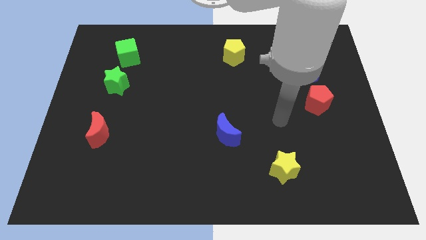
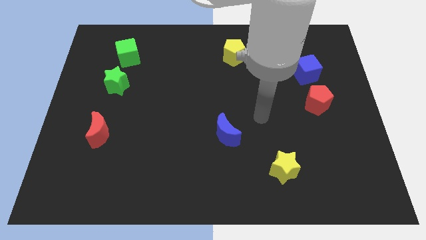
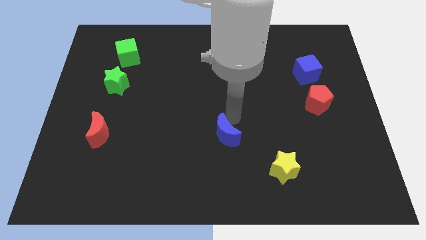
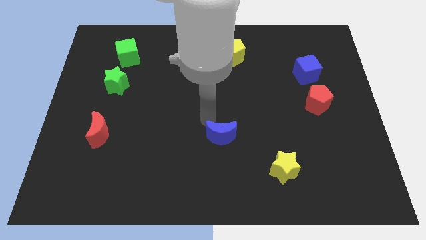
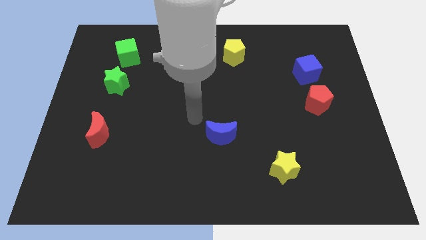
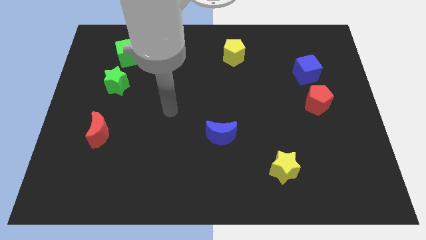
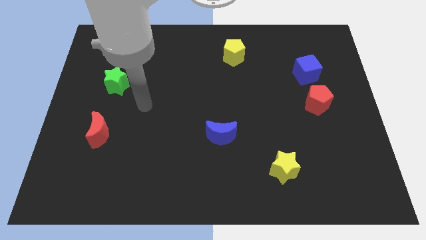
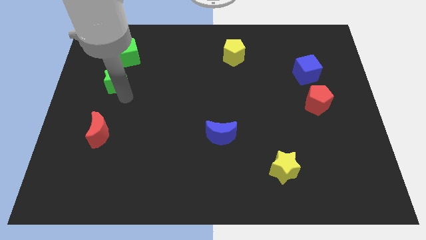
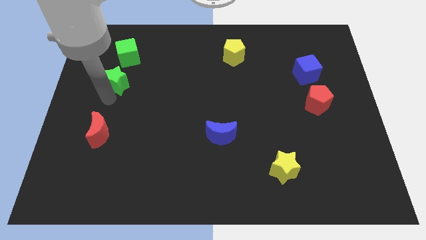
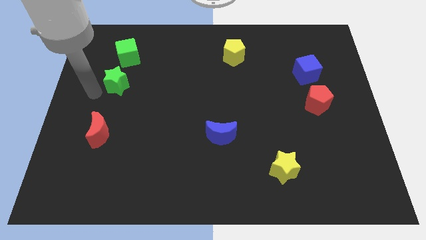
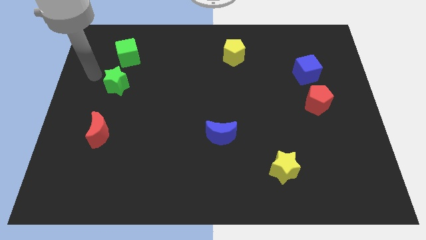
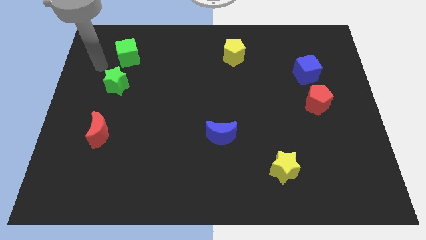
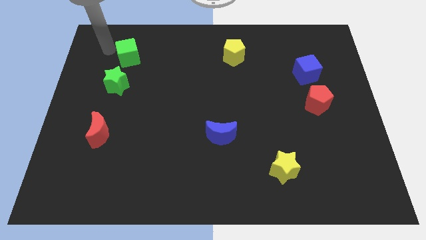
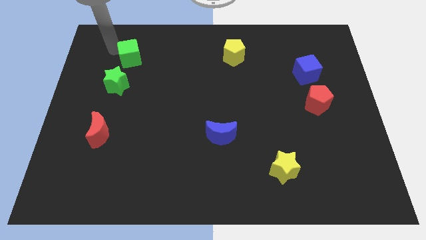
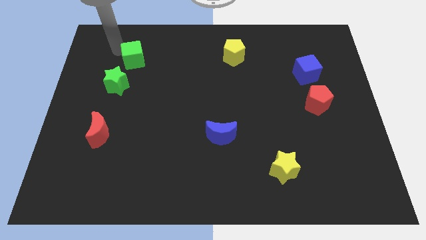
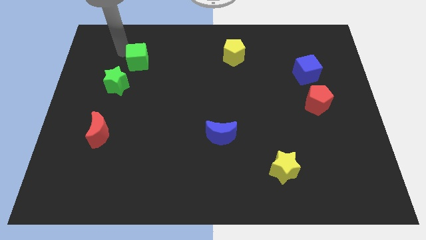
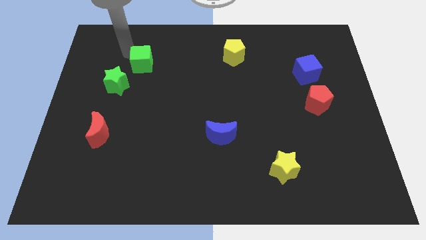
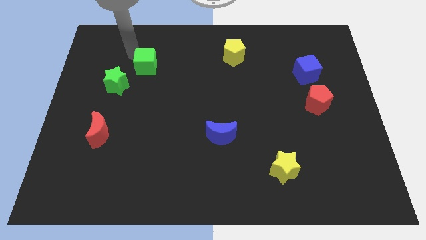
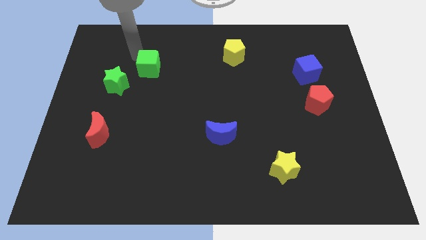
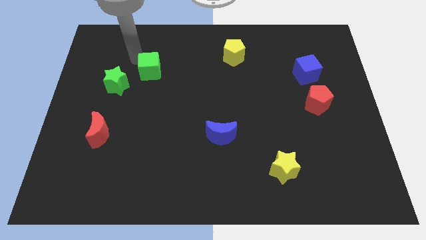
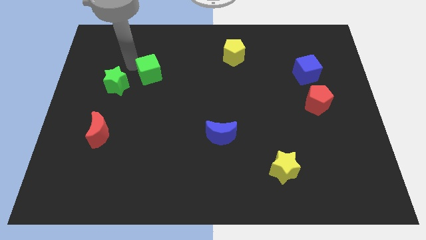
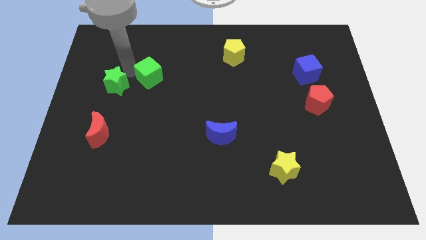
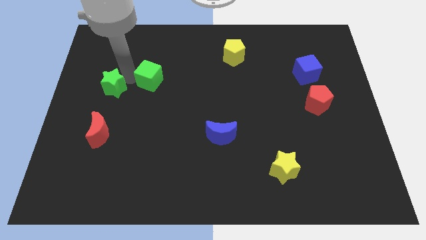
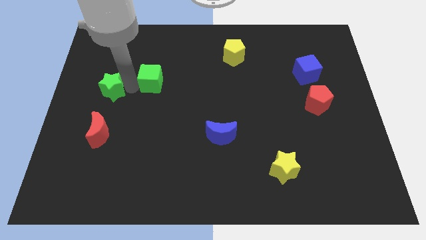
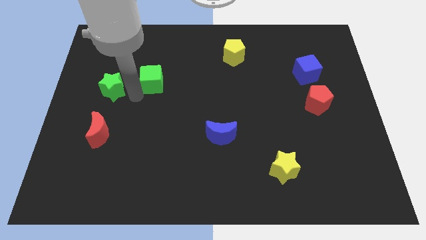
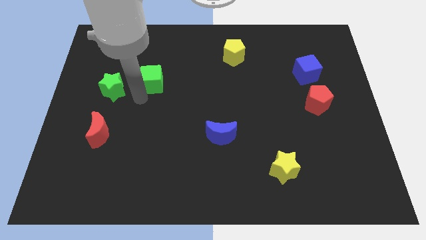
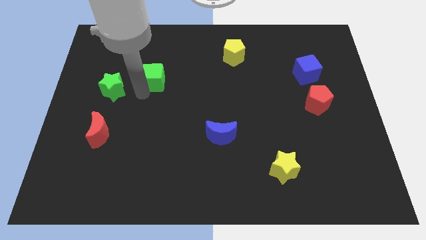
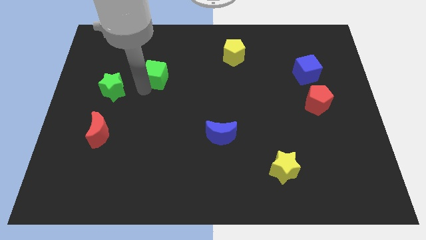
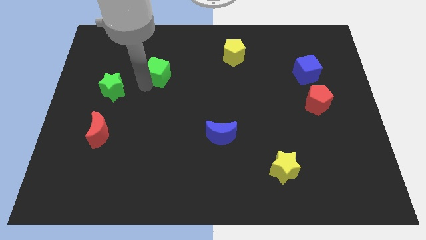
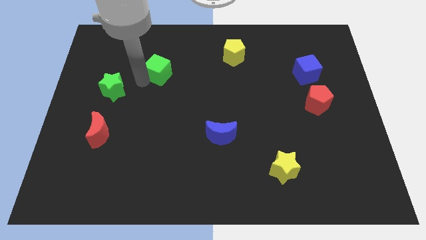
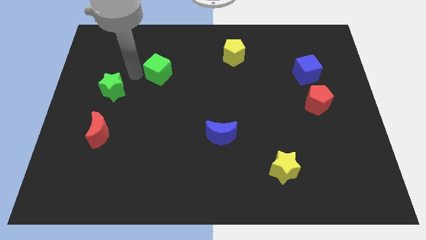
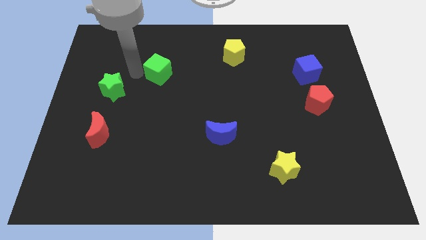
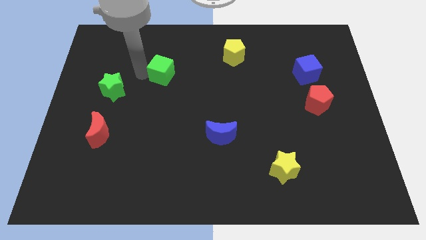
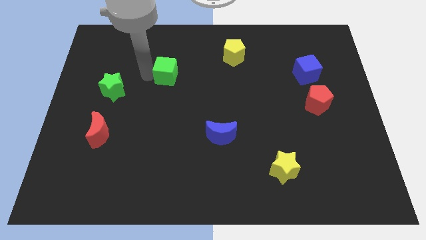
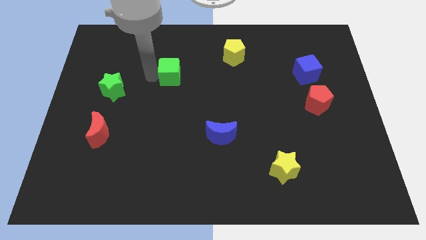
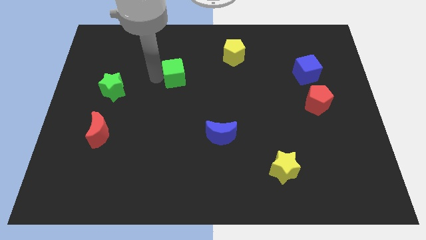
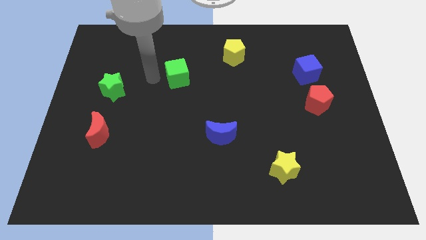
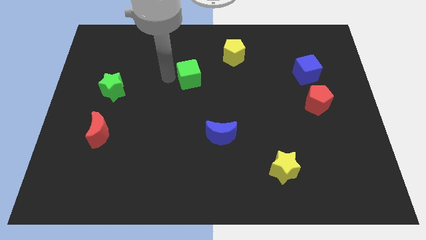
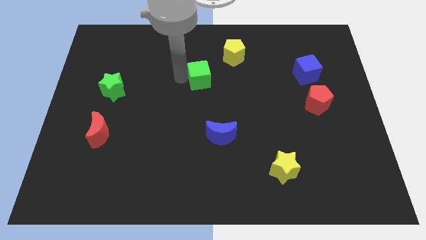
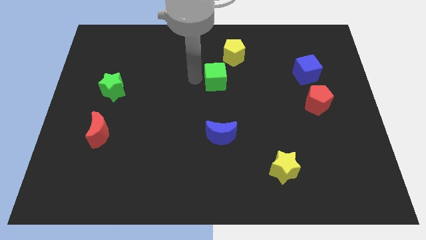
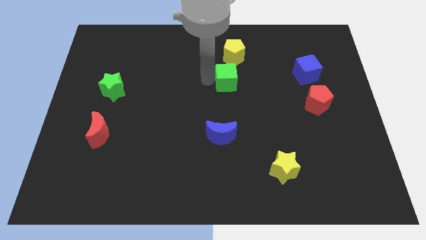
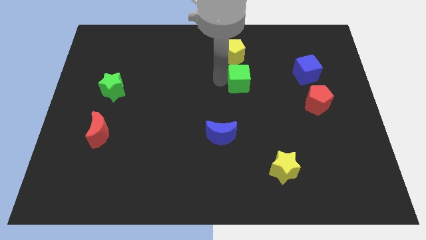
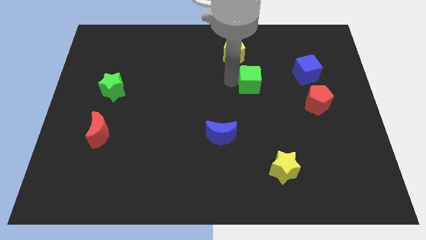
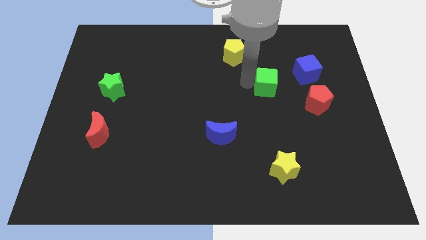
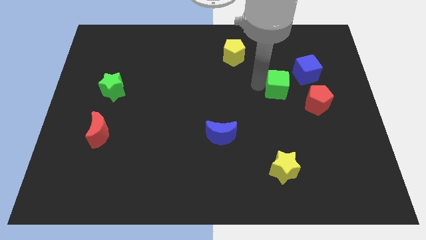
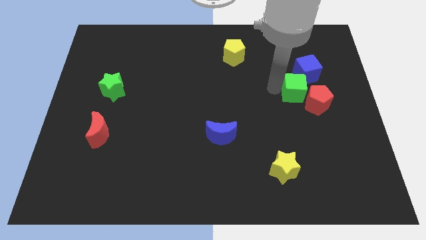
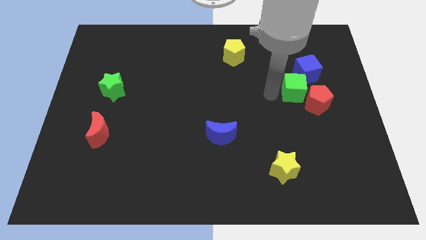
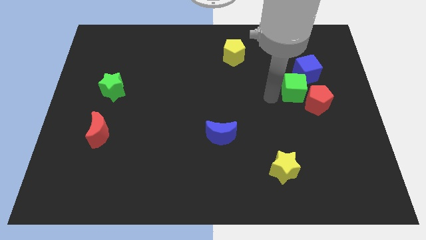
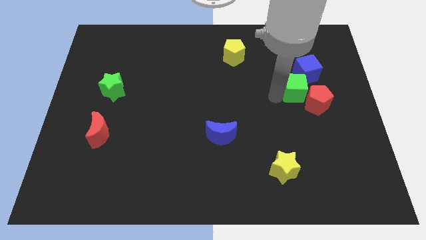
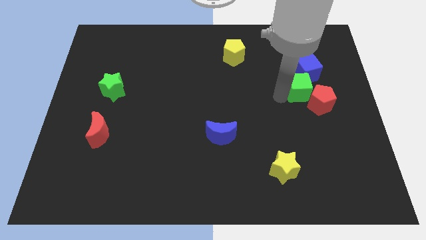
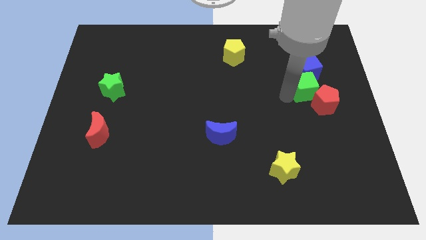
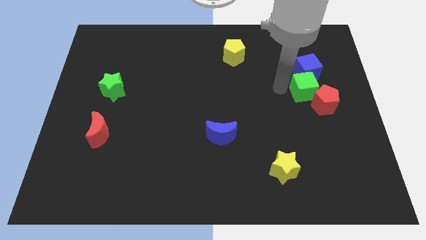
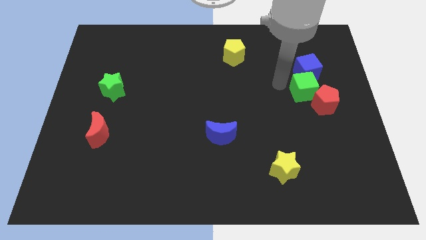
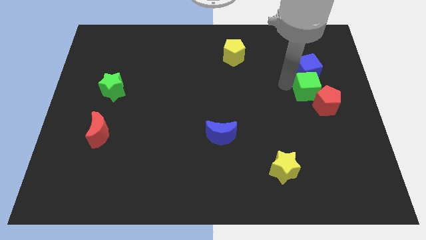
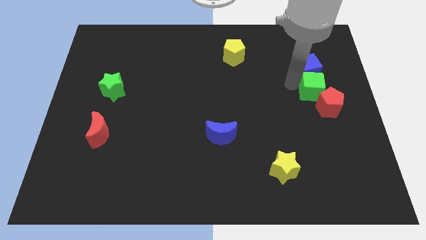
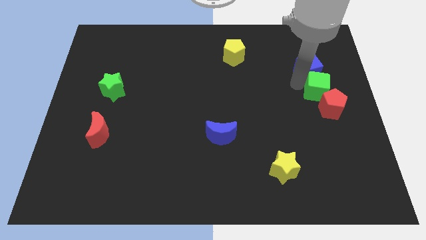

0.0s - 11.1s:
push the green cube to the right side of the board

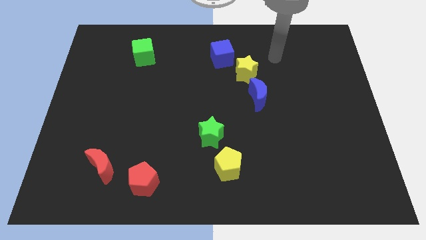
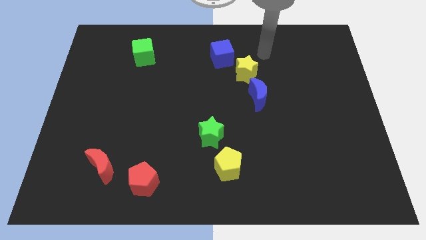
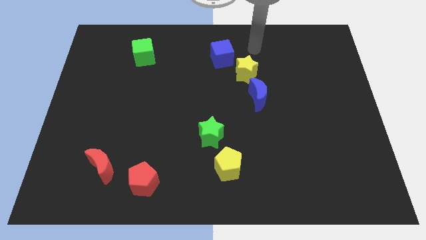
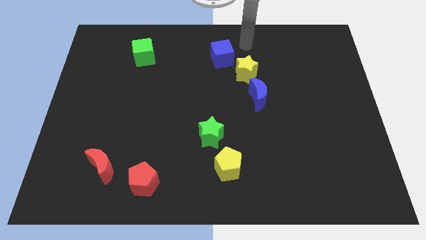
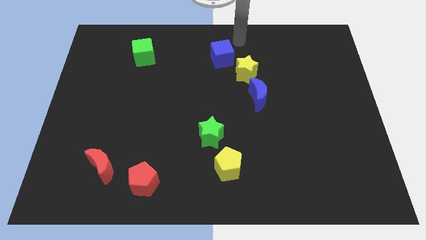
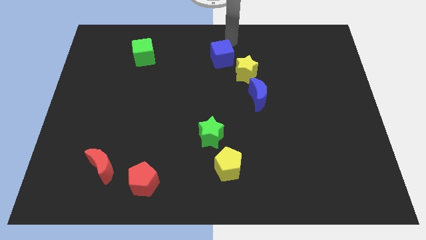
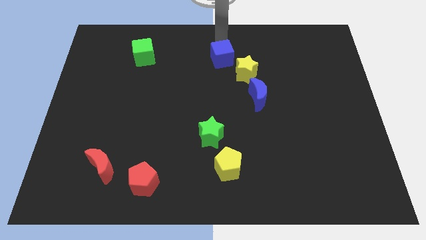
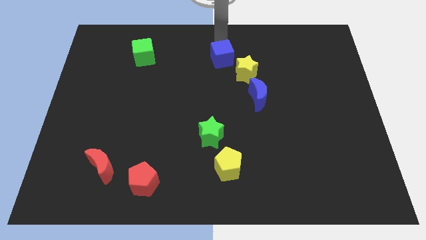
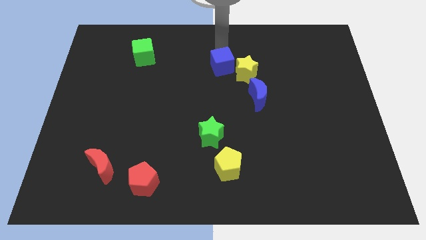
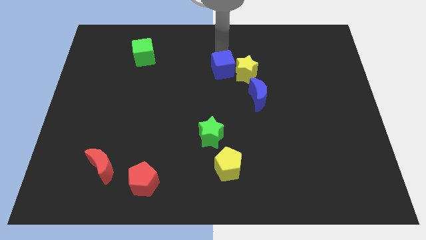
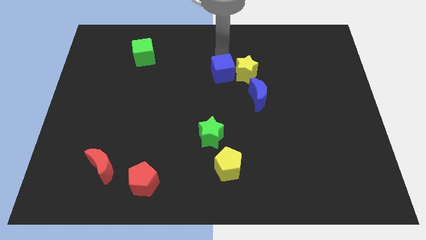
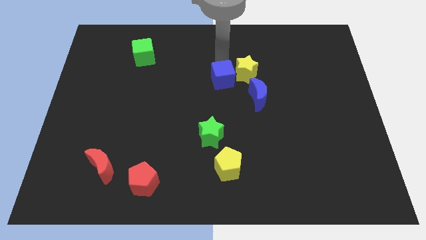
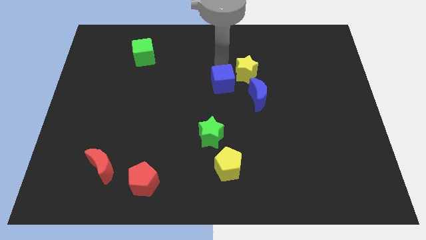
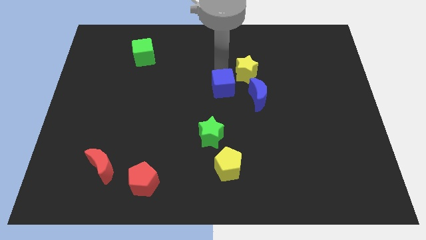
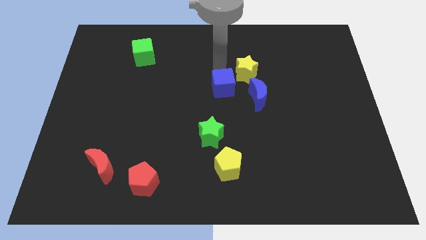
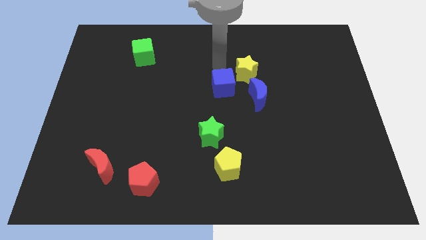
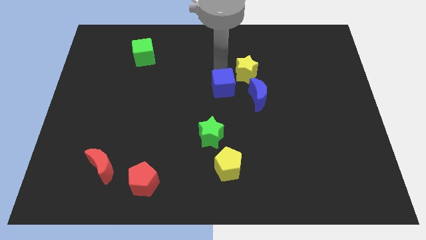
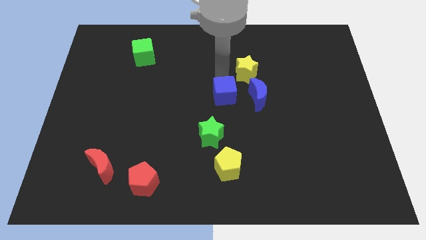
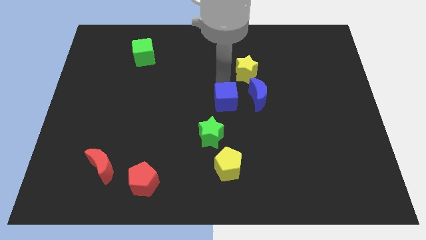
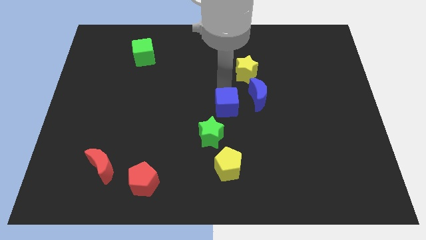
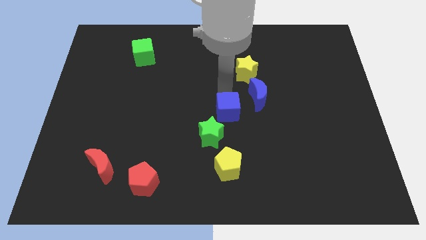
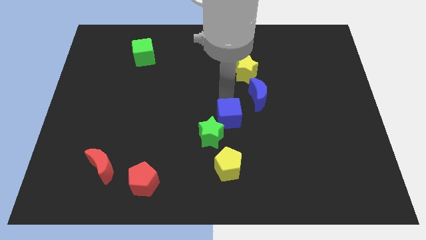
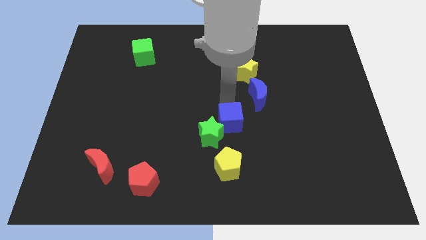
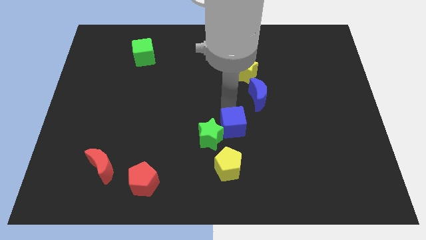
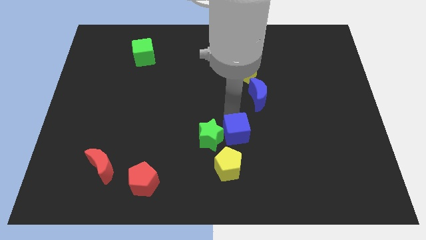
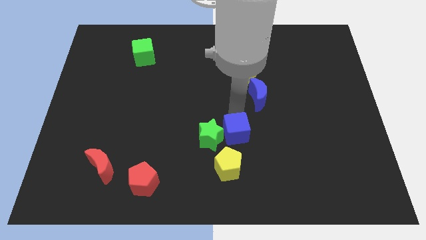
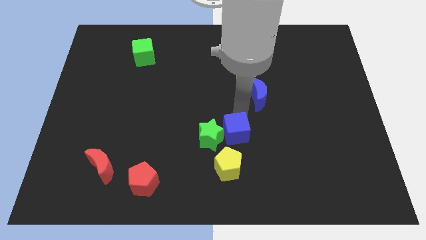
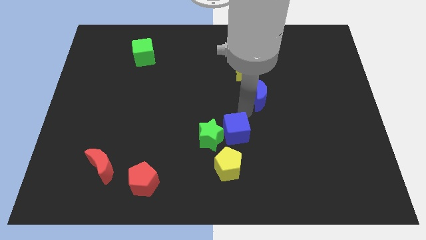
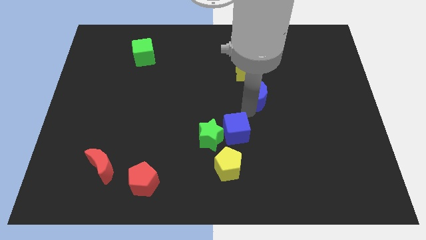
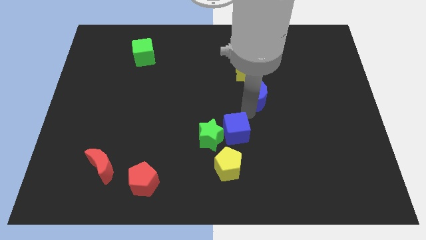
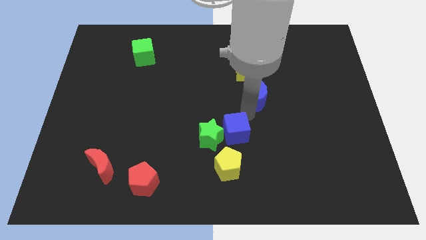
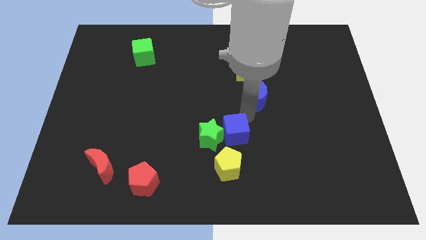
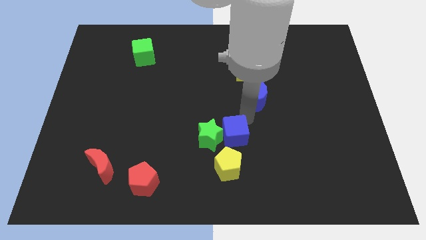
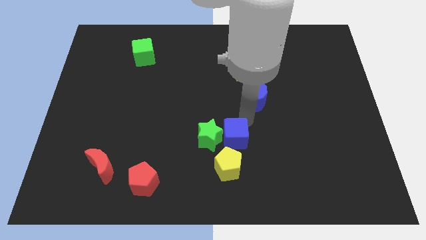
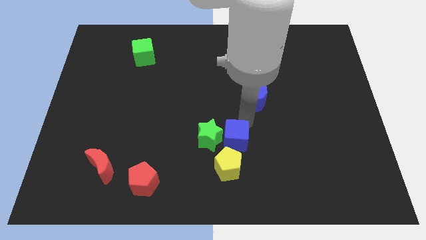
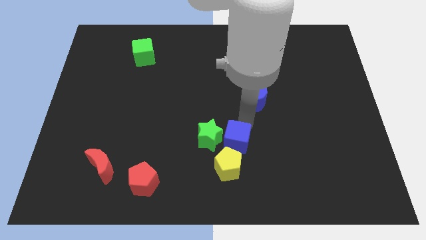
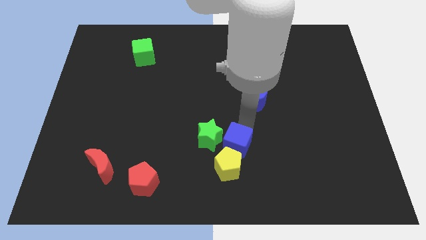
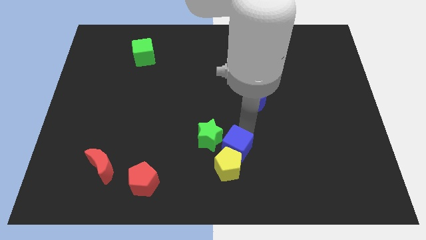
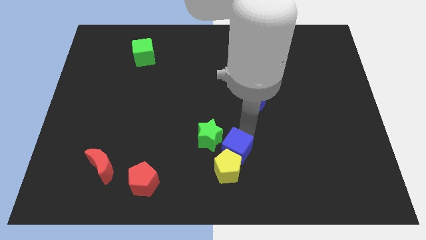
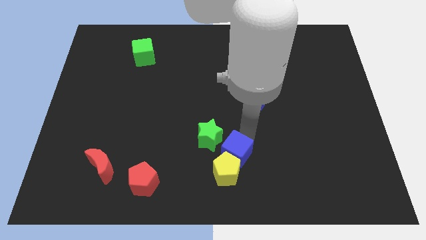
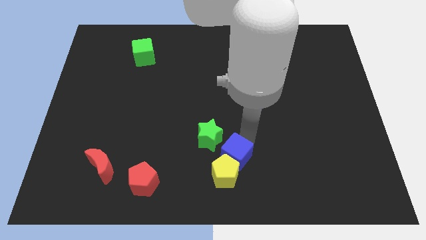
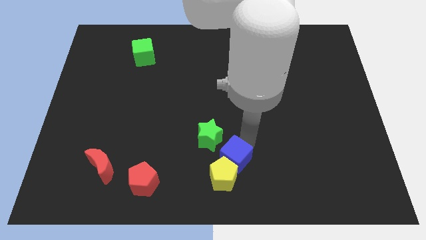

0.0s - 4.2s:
push the blue cube to the bottom
